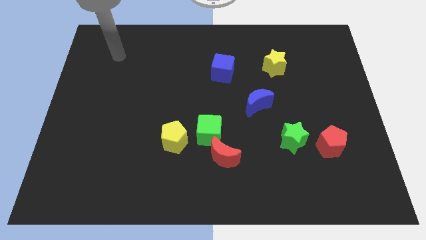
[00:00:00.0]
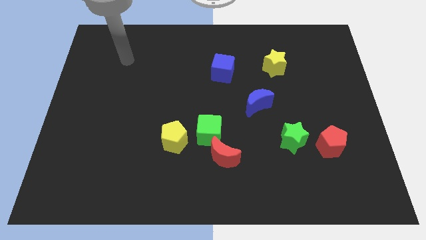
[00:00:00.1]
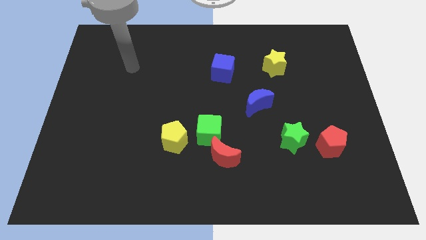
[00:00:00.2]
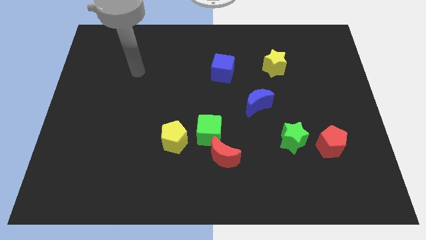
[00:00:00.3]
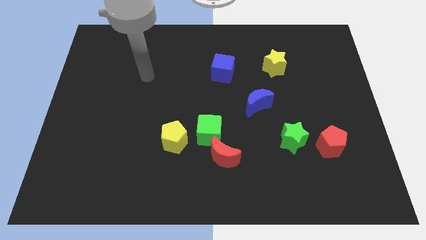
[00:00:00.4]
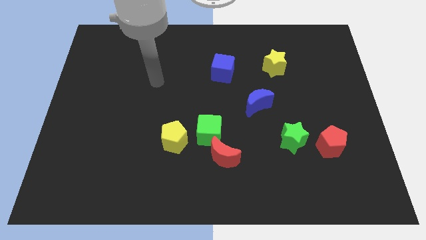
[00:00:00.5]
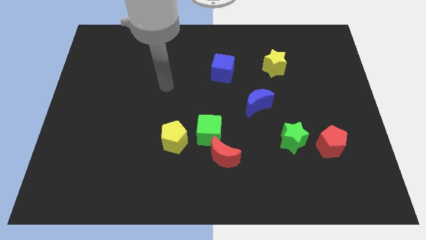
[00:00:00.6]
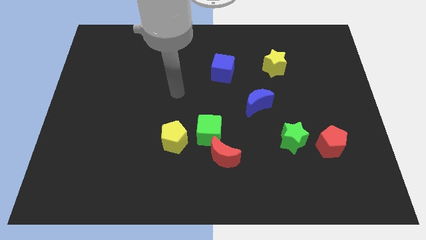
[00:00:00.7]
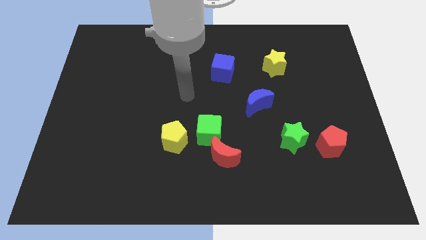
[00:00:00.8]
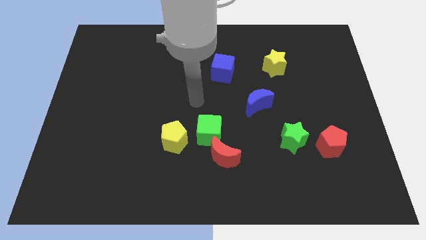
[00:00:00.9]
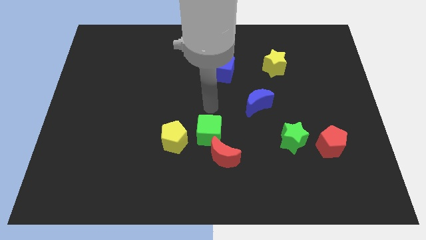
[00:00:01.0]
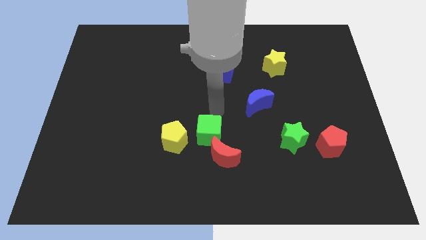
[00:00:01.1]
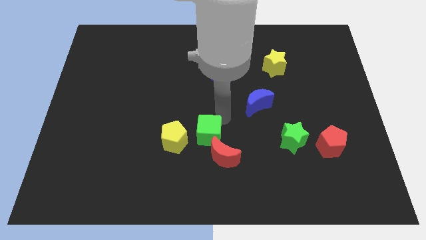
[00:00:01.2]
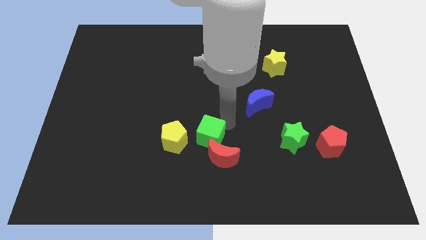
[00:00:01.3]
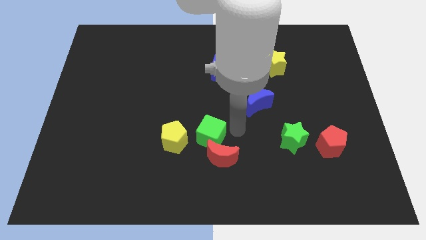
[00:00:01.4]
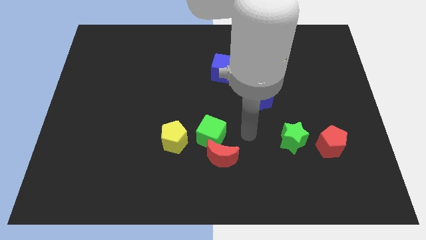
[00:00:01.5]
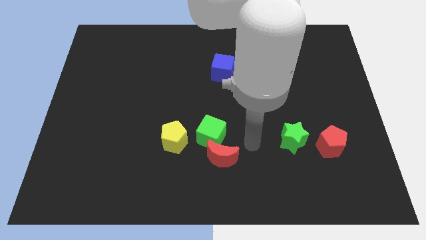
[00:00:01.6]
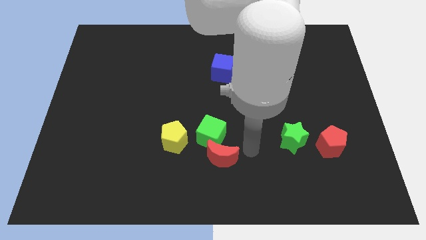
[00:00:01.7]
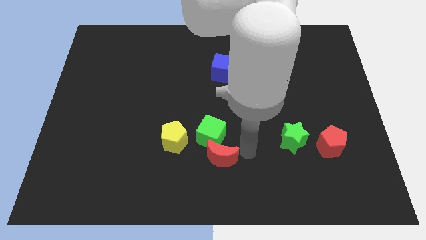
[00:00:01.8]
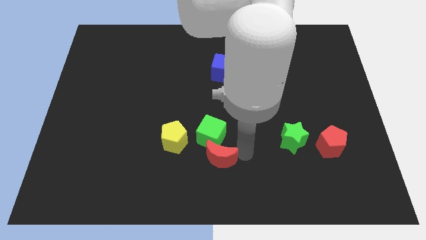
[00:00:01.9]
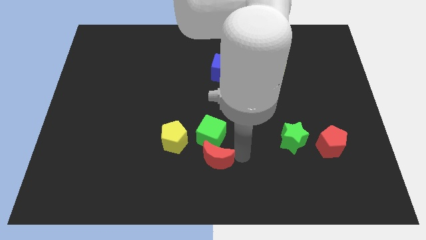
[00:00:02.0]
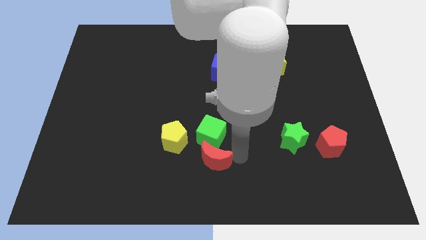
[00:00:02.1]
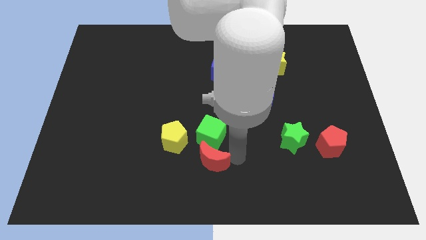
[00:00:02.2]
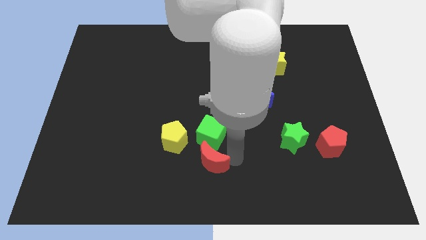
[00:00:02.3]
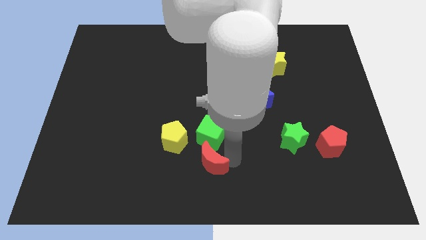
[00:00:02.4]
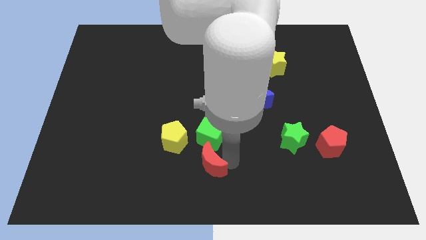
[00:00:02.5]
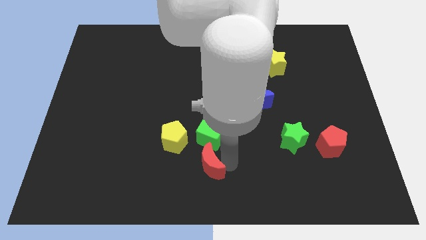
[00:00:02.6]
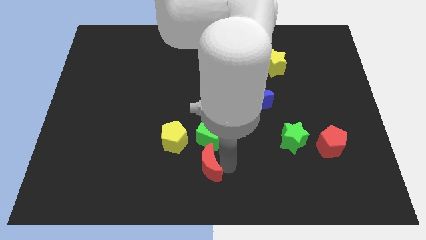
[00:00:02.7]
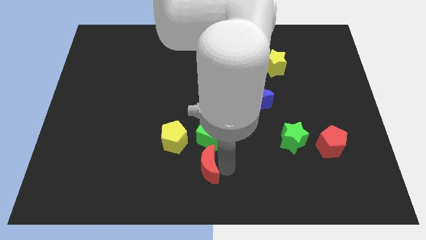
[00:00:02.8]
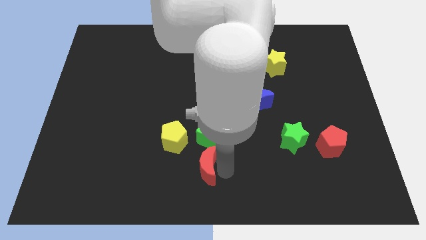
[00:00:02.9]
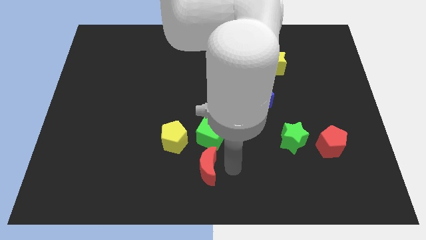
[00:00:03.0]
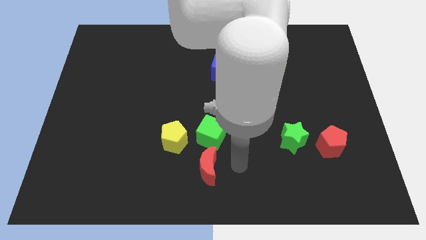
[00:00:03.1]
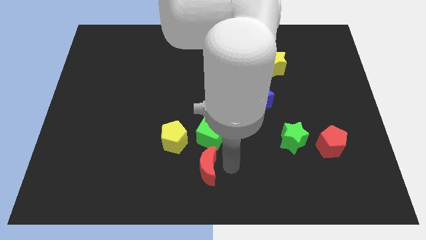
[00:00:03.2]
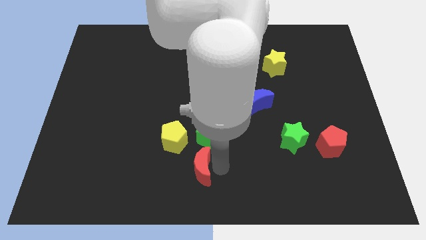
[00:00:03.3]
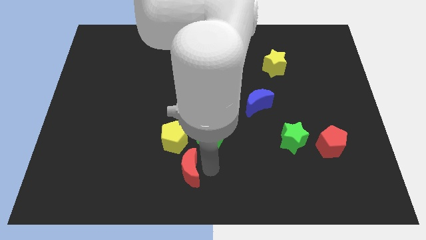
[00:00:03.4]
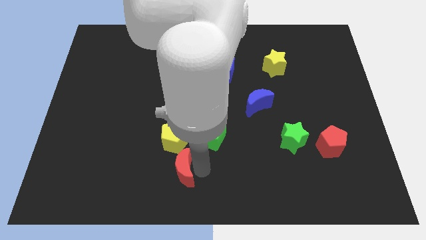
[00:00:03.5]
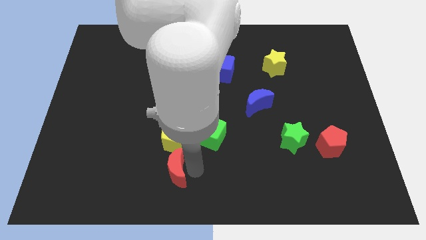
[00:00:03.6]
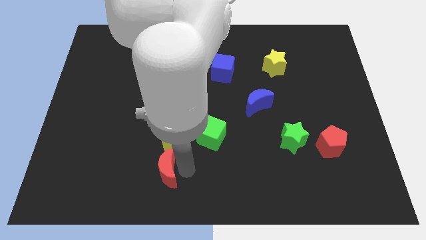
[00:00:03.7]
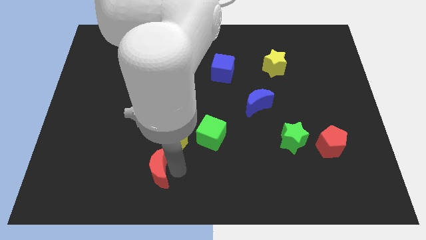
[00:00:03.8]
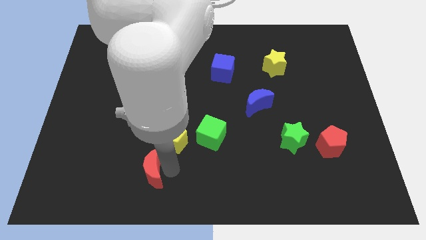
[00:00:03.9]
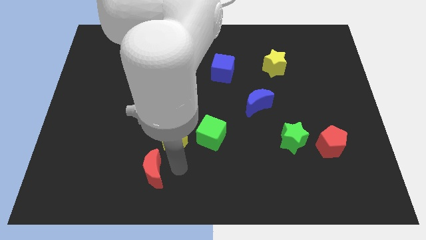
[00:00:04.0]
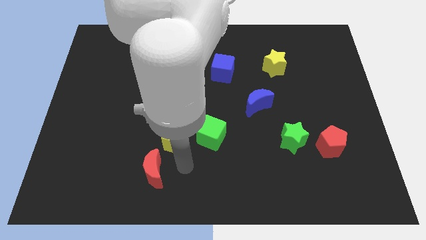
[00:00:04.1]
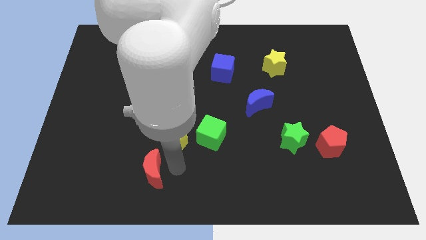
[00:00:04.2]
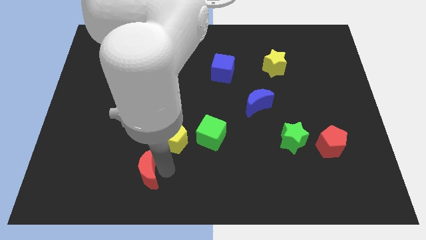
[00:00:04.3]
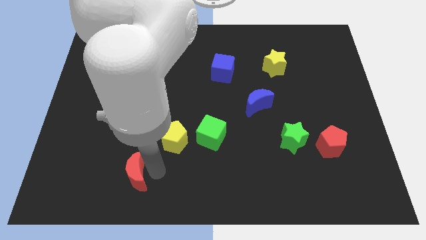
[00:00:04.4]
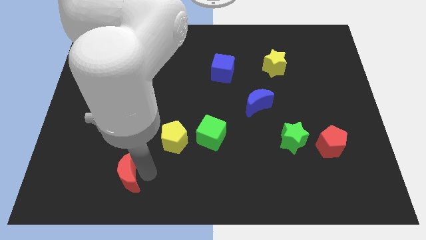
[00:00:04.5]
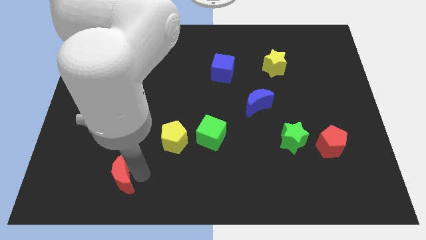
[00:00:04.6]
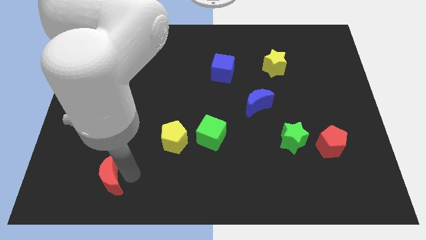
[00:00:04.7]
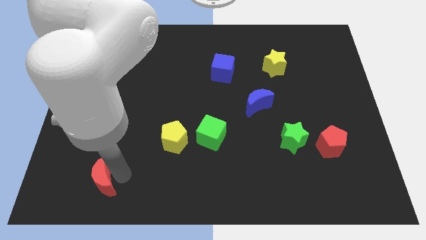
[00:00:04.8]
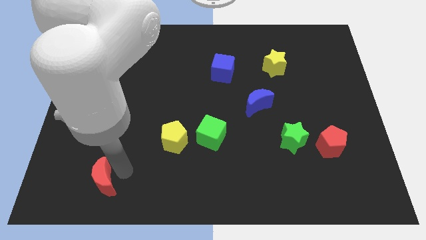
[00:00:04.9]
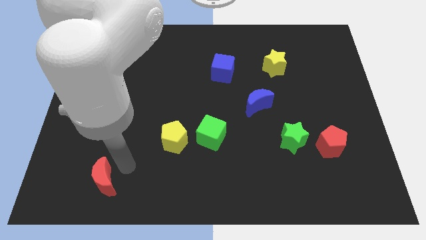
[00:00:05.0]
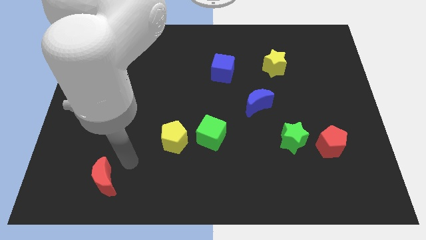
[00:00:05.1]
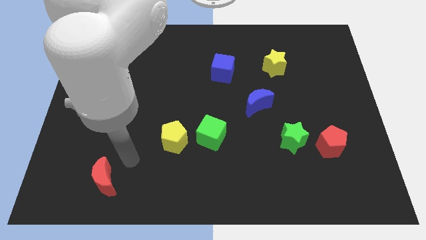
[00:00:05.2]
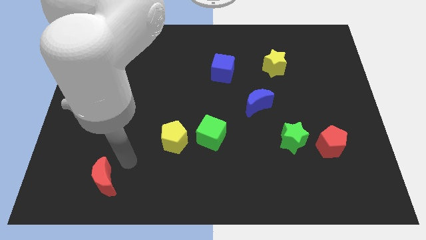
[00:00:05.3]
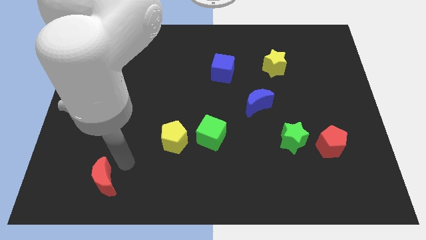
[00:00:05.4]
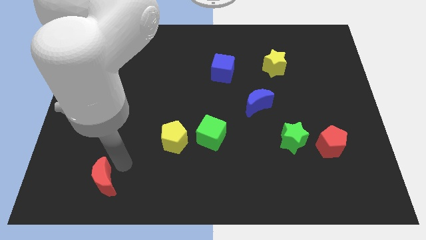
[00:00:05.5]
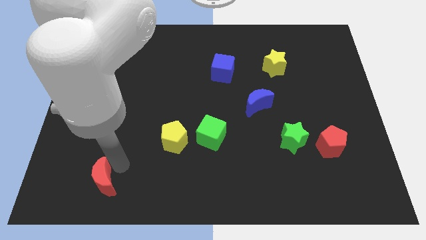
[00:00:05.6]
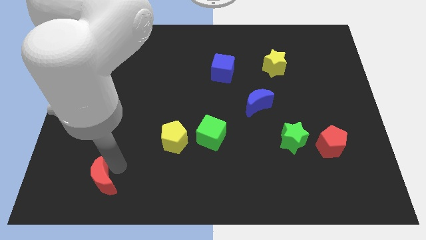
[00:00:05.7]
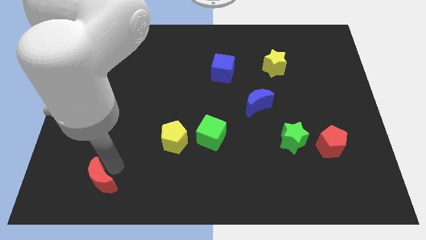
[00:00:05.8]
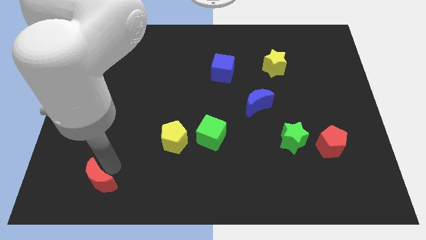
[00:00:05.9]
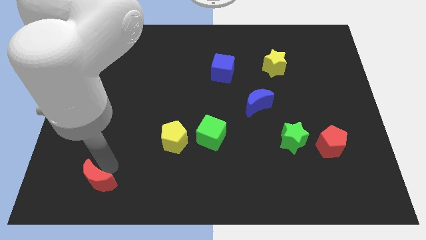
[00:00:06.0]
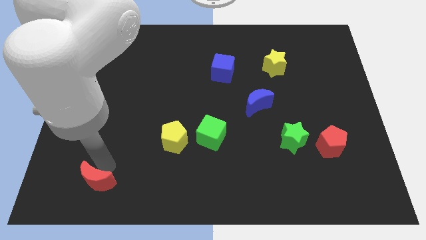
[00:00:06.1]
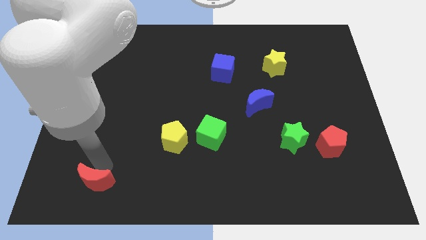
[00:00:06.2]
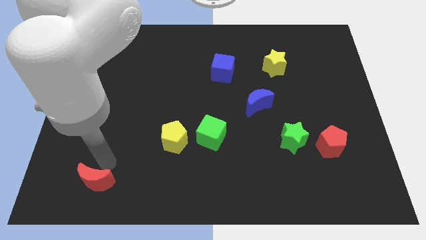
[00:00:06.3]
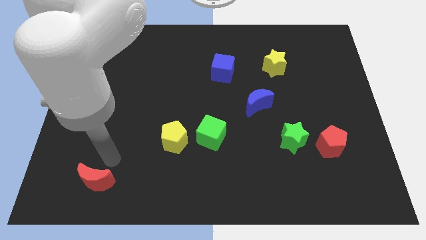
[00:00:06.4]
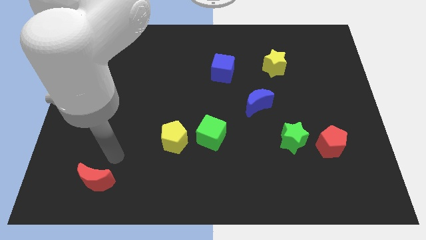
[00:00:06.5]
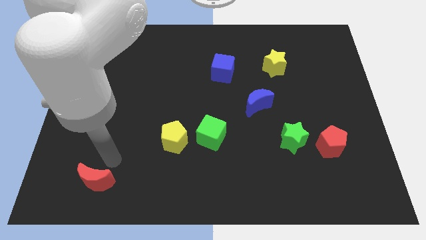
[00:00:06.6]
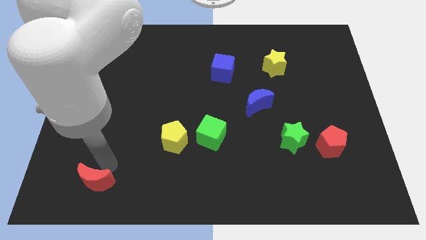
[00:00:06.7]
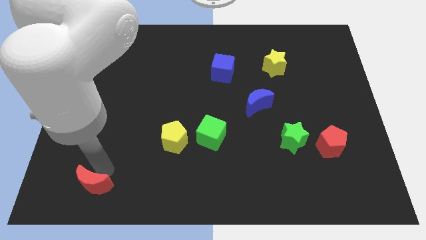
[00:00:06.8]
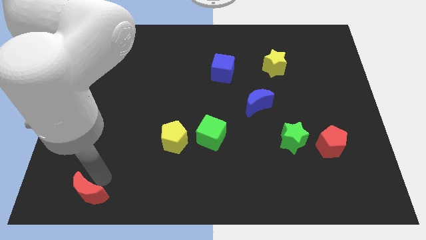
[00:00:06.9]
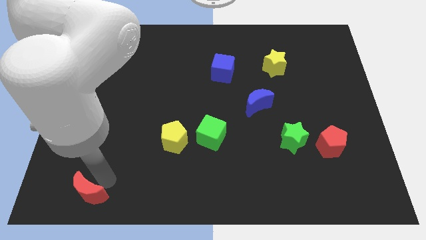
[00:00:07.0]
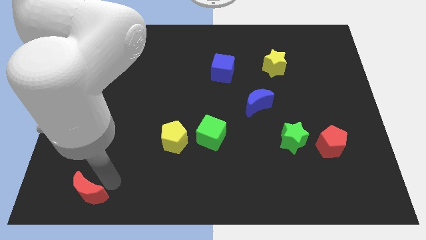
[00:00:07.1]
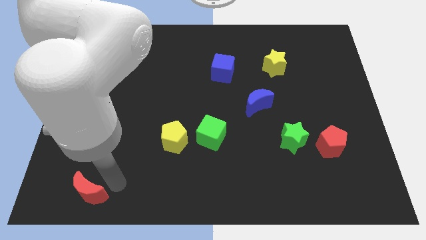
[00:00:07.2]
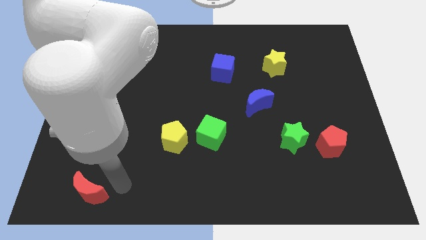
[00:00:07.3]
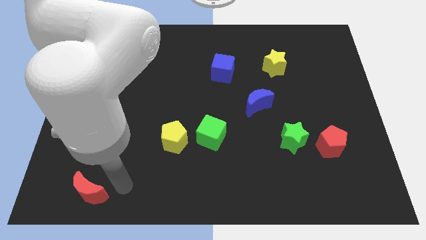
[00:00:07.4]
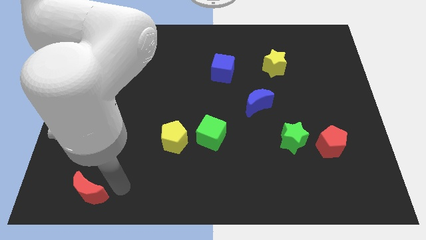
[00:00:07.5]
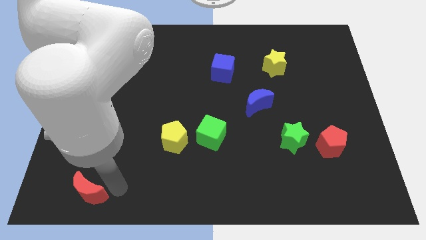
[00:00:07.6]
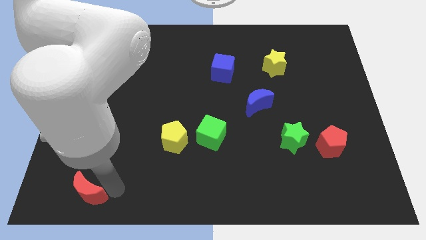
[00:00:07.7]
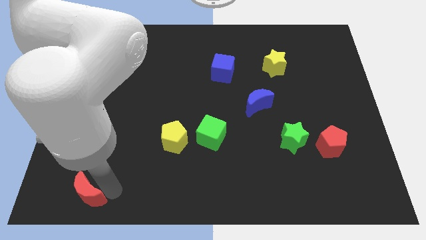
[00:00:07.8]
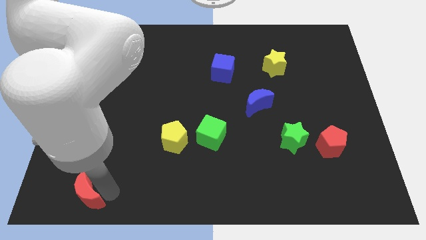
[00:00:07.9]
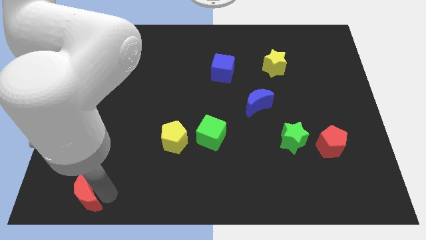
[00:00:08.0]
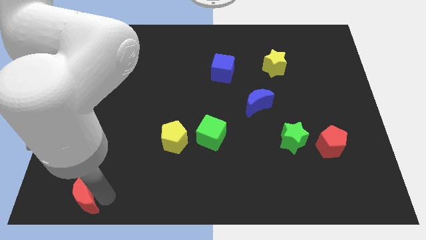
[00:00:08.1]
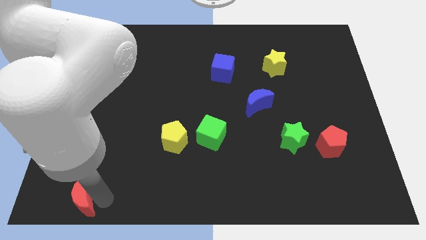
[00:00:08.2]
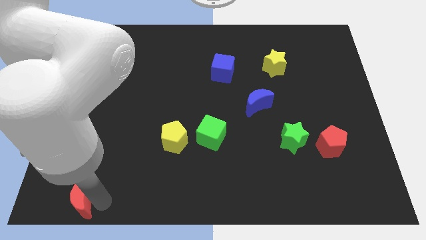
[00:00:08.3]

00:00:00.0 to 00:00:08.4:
move the red moon to the bottom left corner
